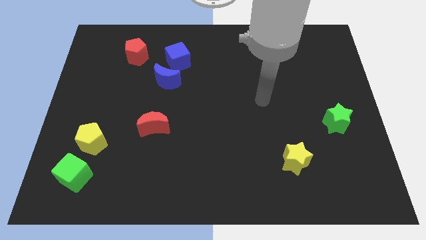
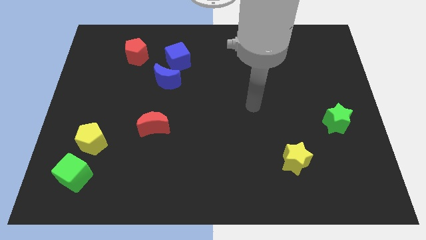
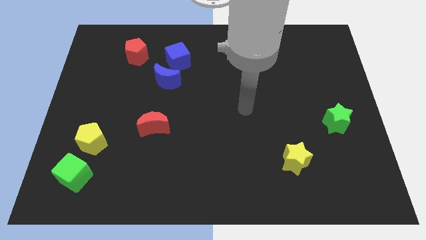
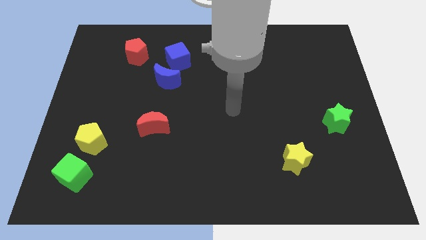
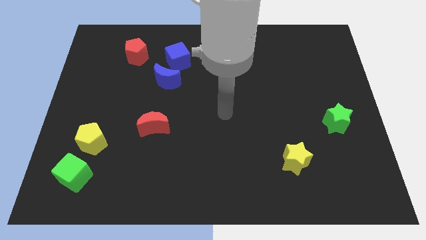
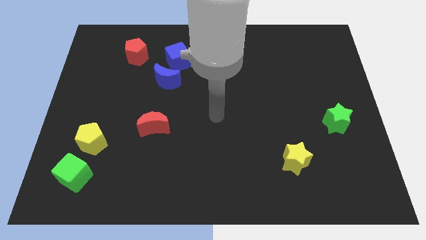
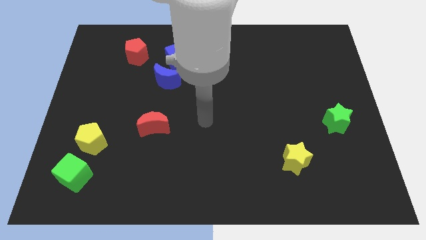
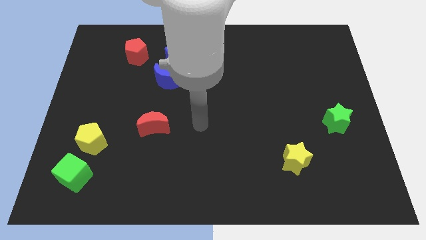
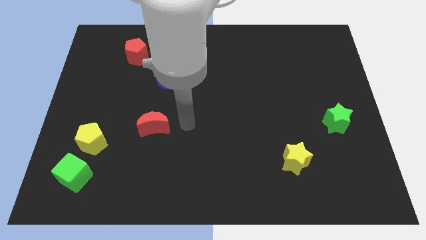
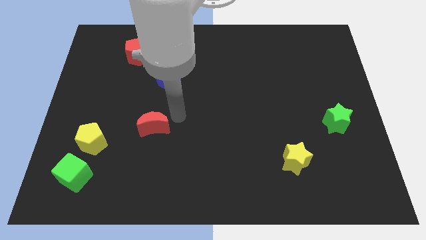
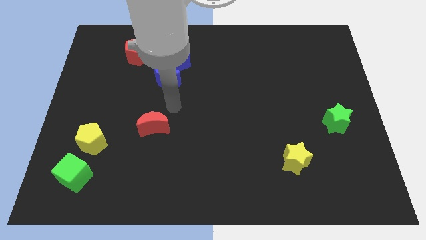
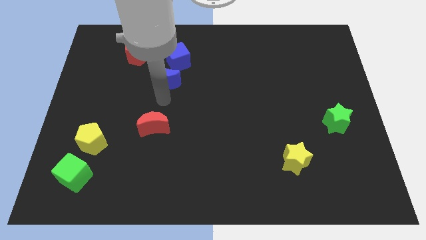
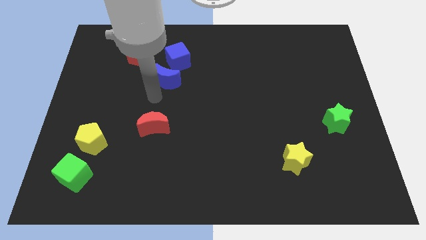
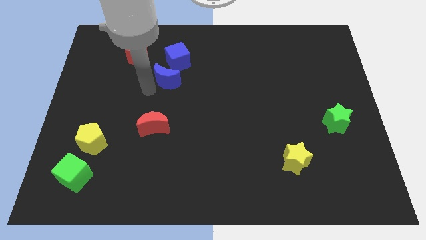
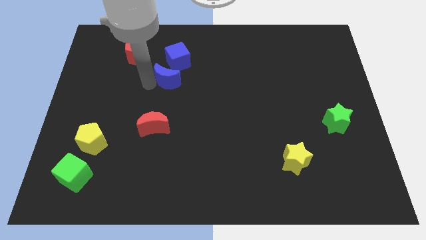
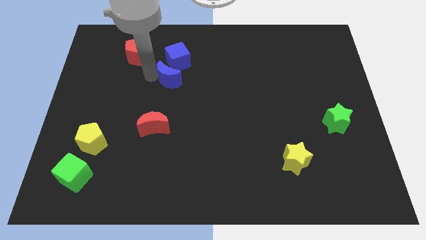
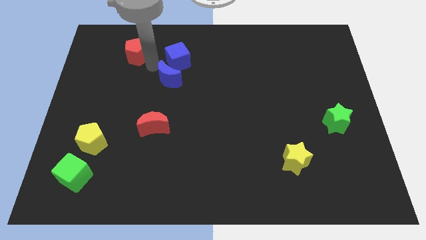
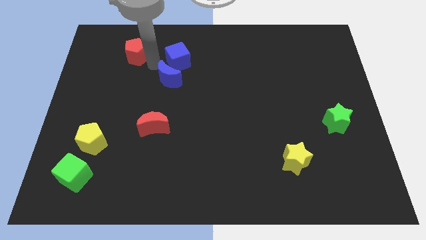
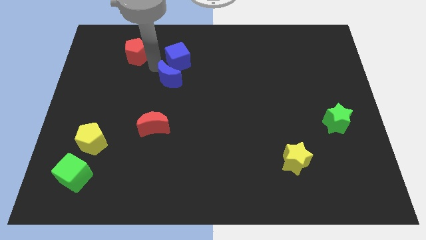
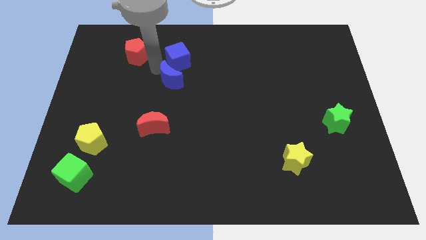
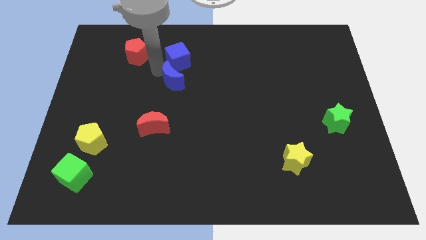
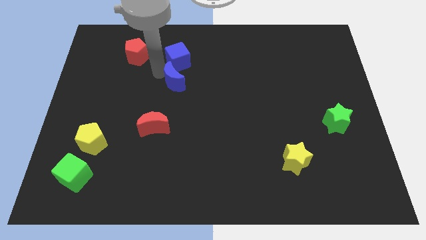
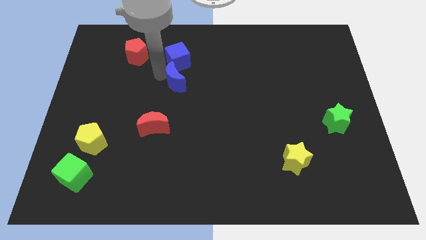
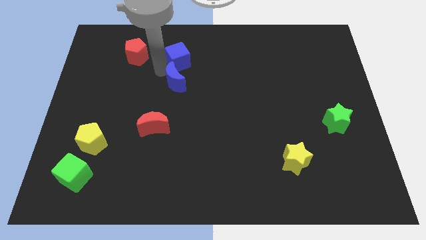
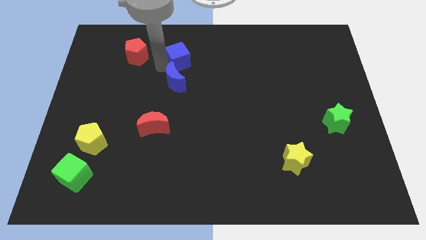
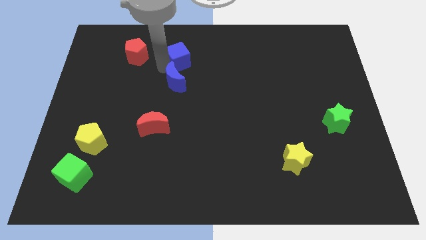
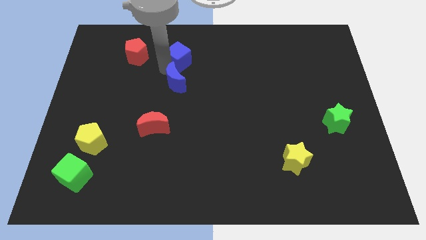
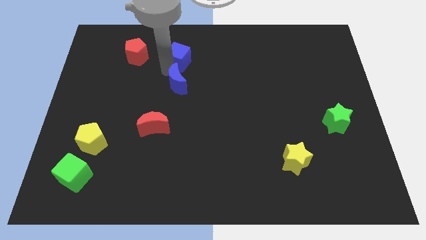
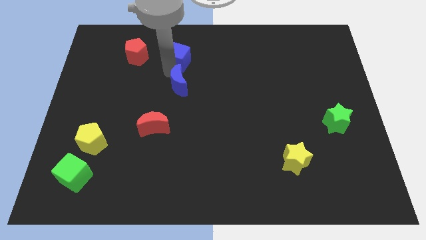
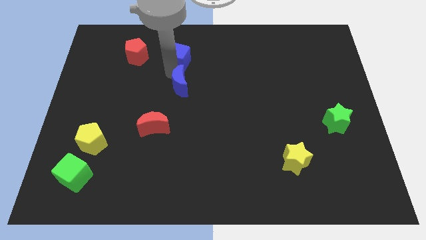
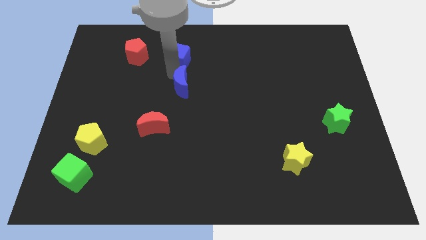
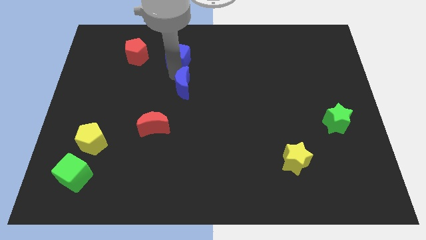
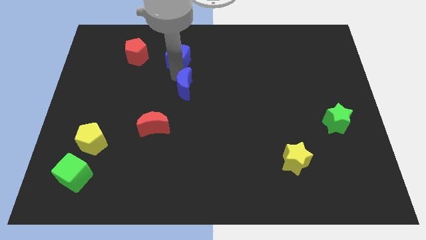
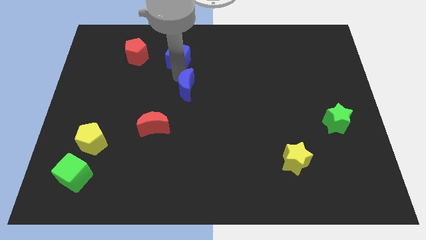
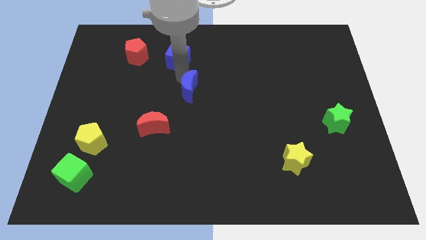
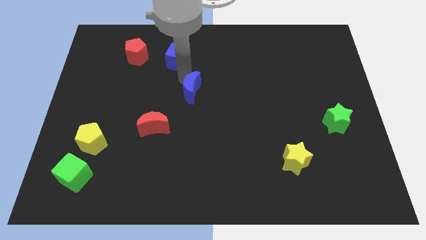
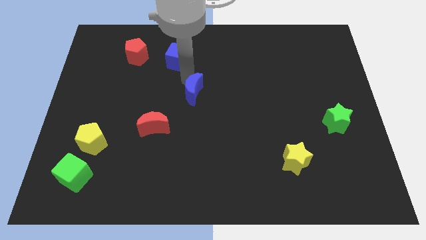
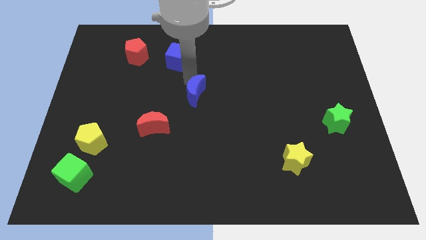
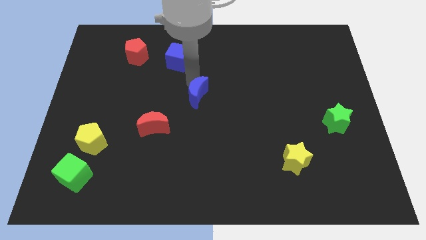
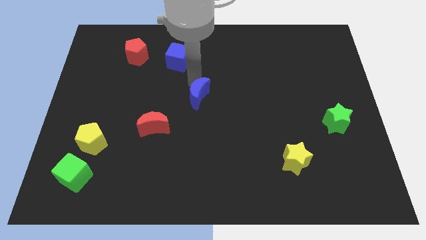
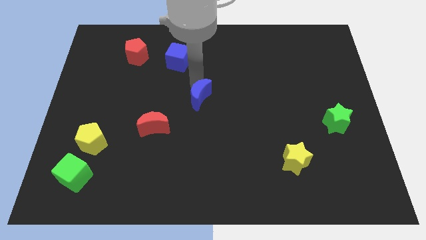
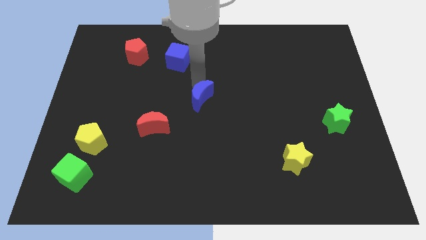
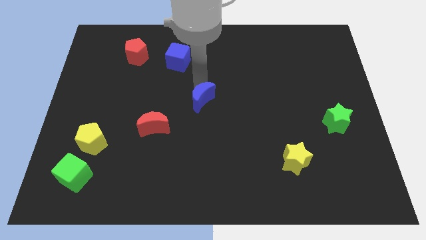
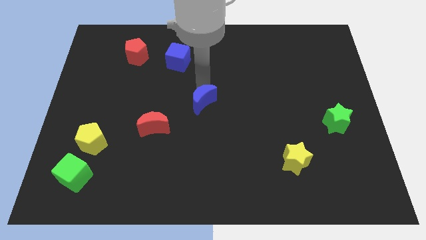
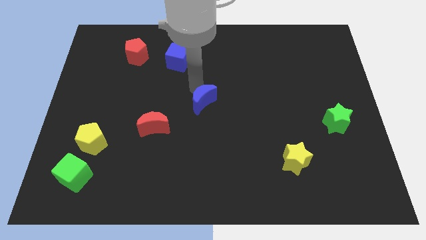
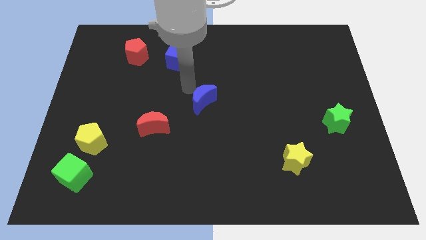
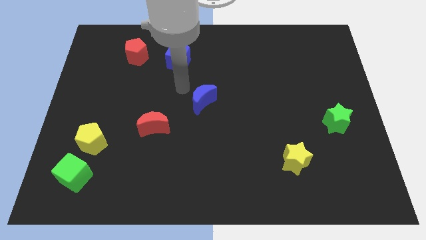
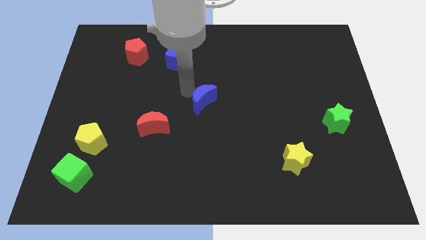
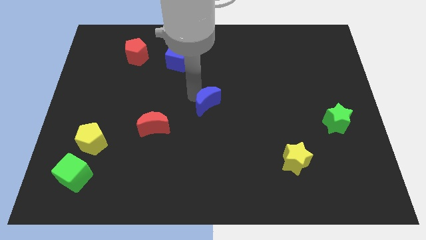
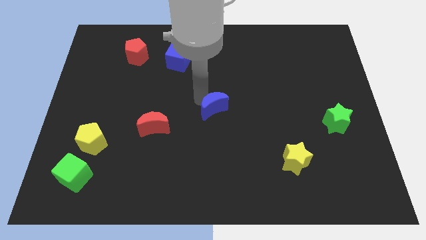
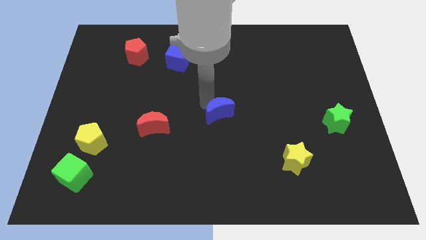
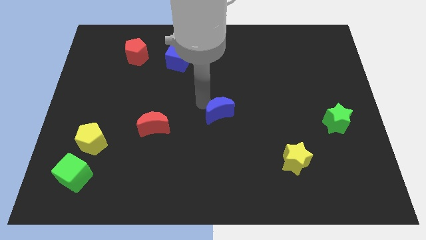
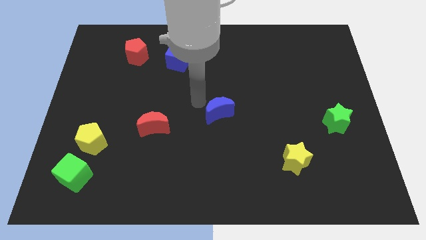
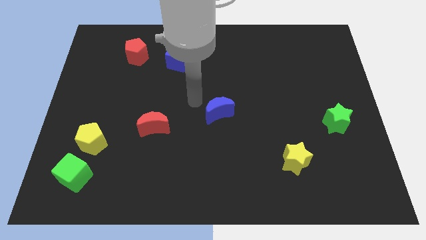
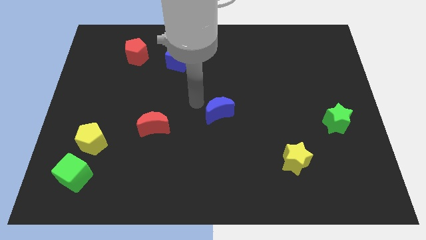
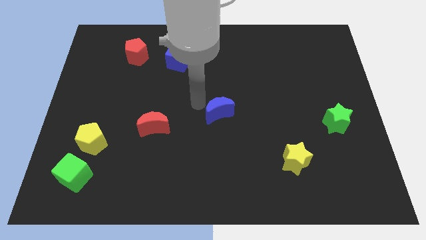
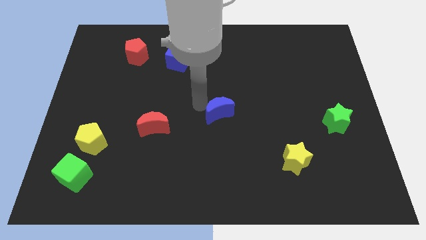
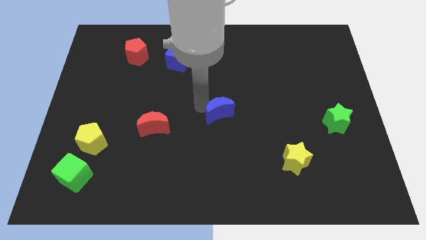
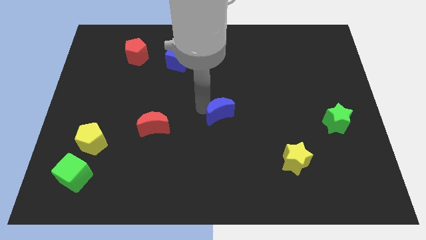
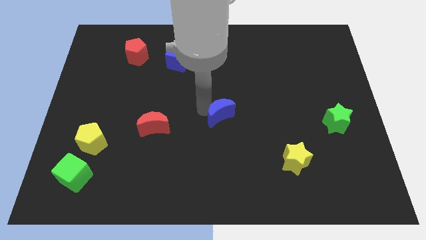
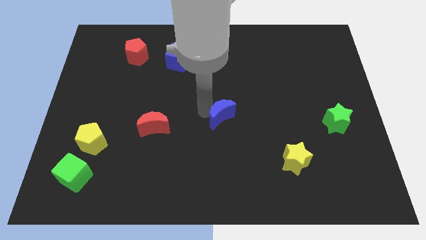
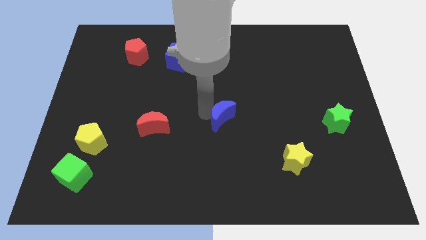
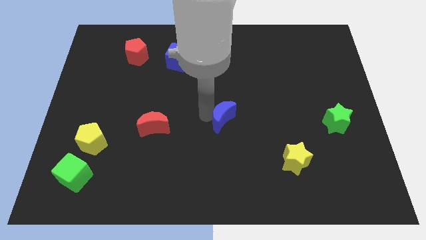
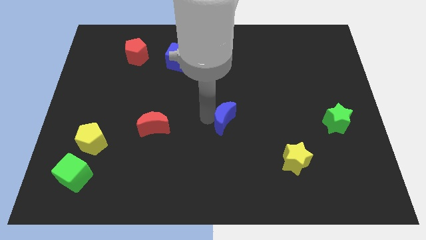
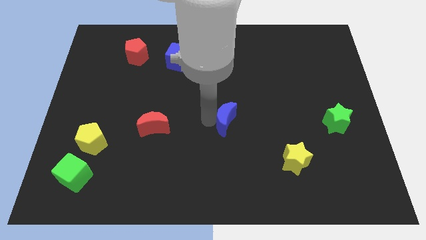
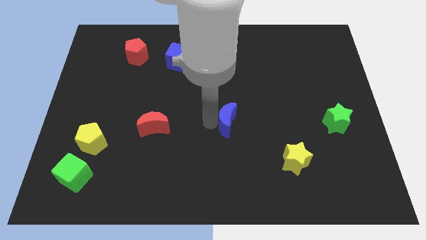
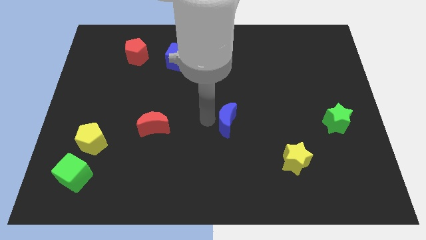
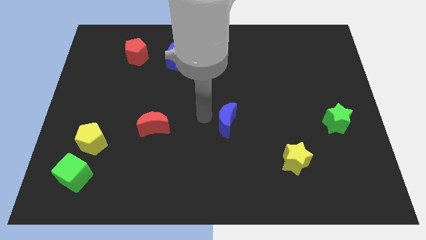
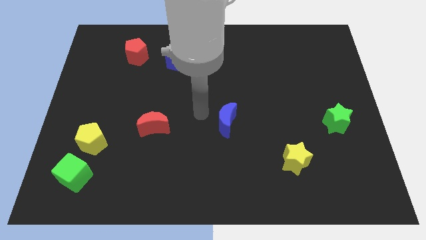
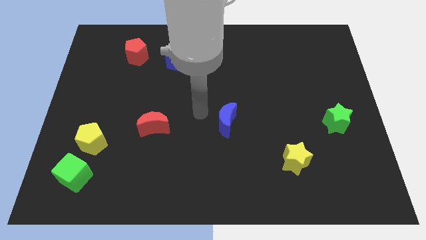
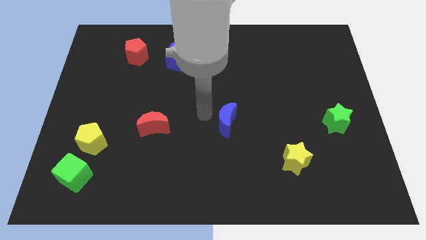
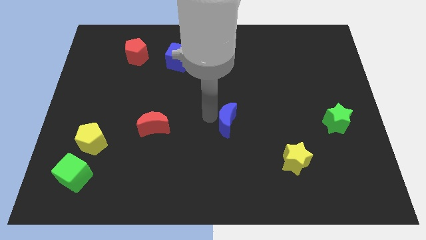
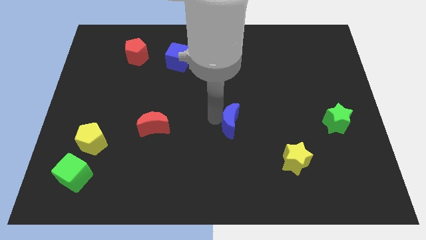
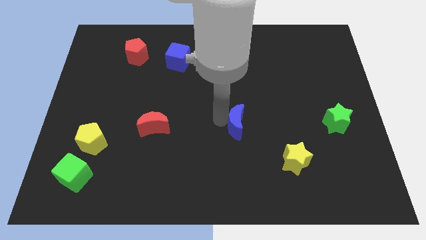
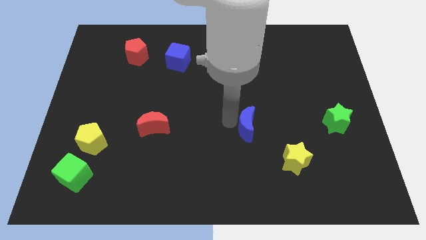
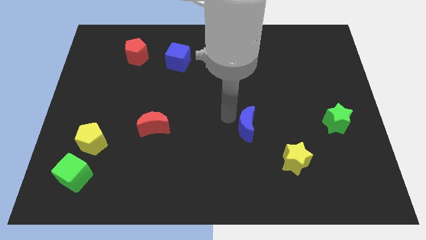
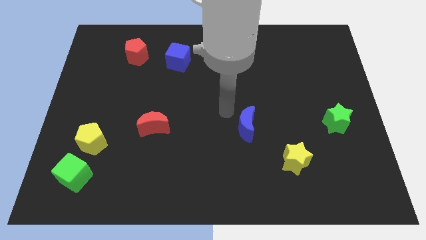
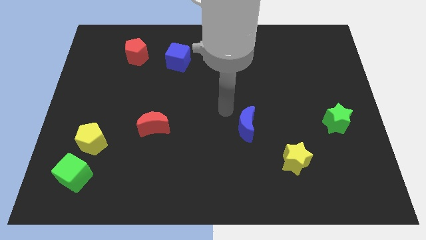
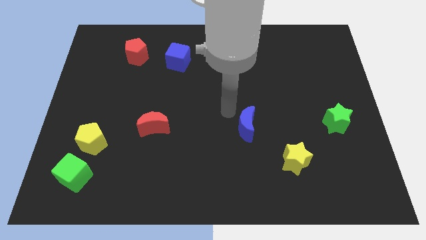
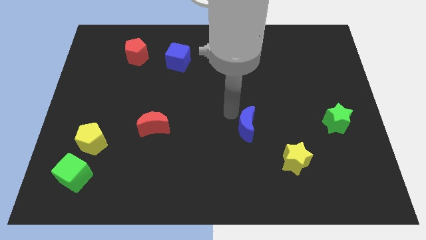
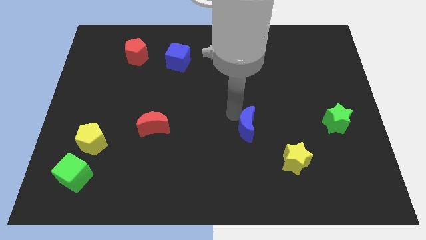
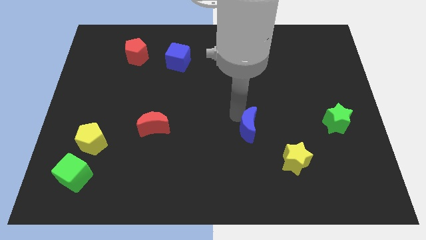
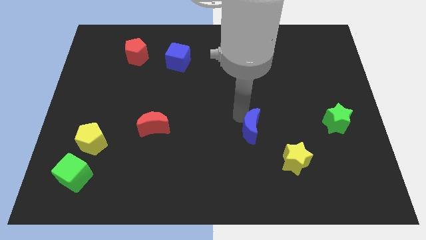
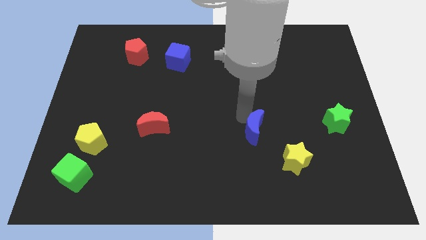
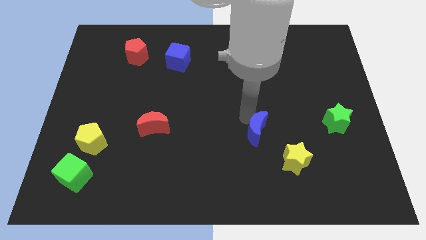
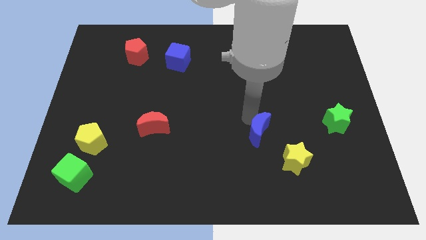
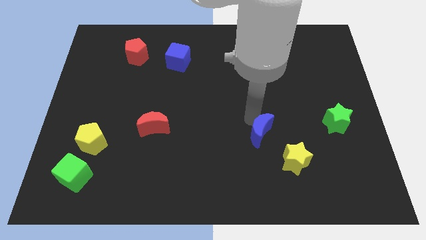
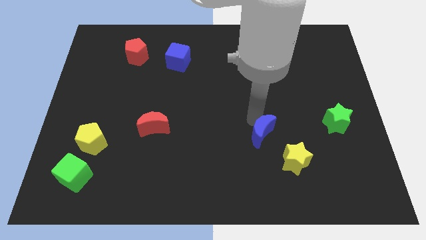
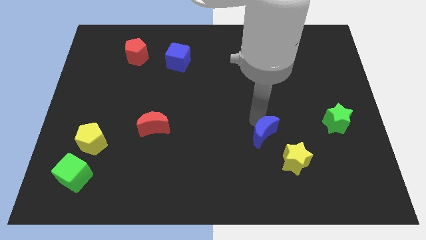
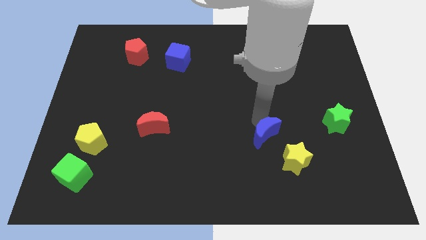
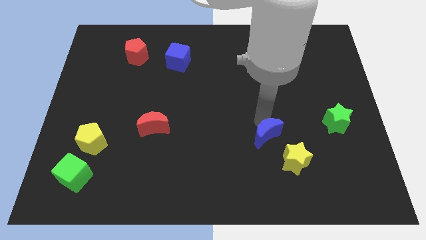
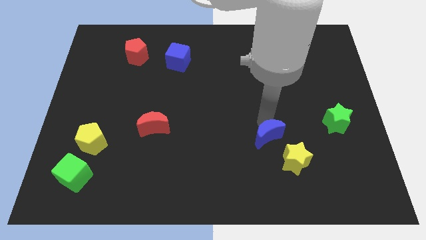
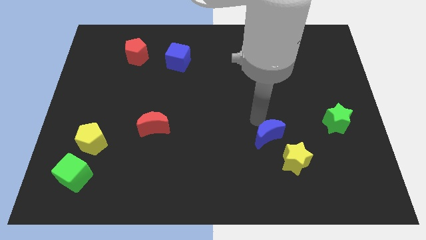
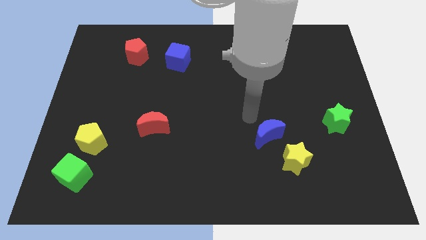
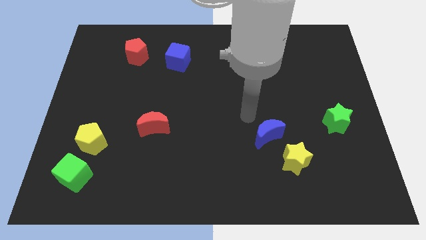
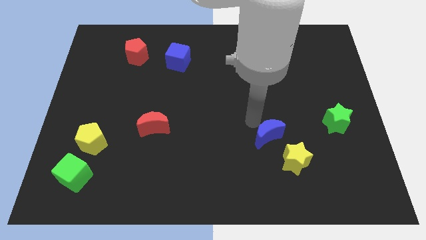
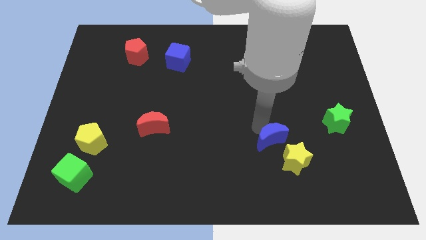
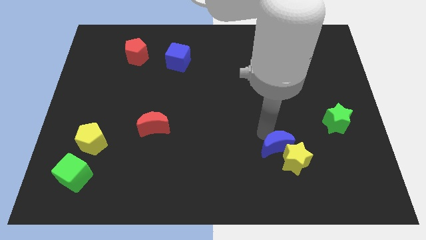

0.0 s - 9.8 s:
move the blue moon to the yellow star
